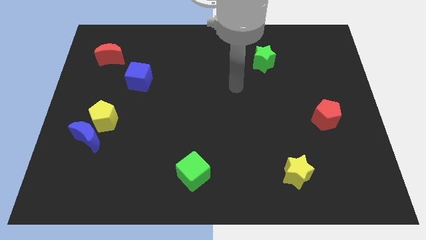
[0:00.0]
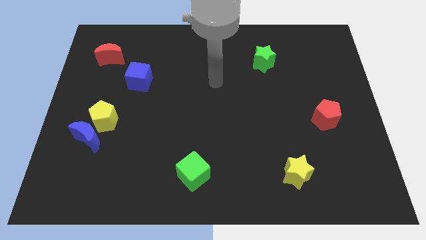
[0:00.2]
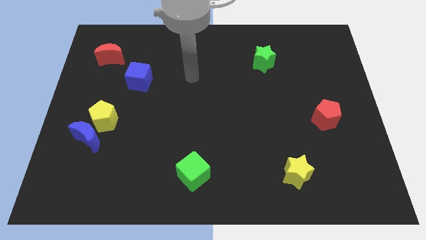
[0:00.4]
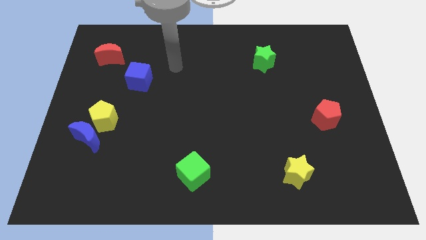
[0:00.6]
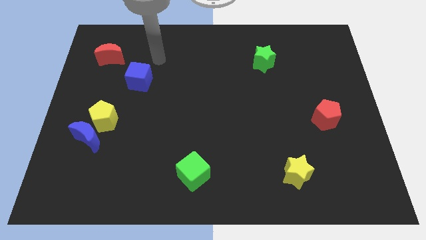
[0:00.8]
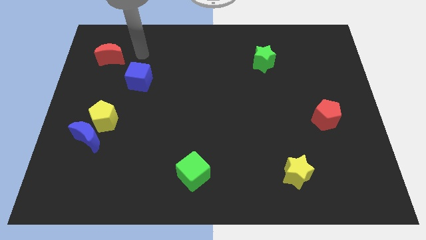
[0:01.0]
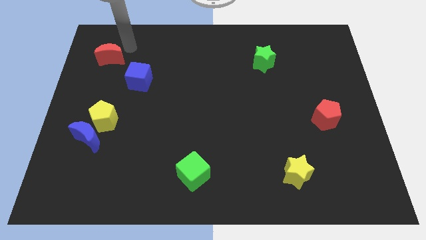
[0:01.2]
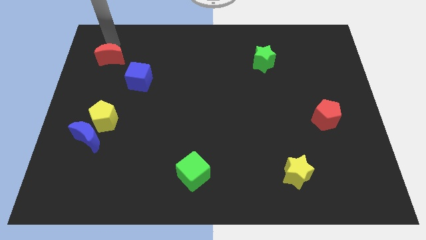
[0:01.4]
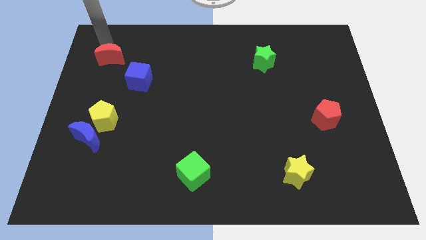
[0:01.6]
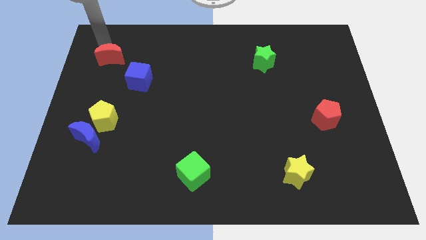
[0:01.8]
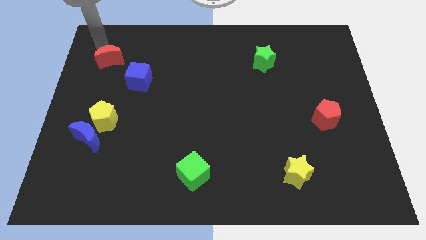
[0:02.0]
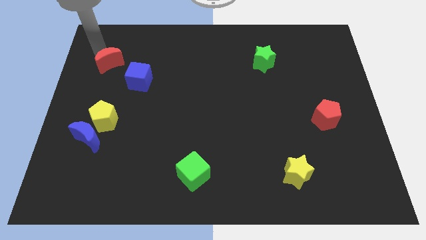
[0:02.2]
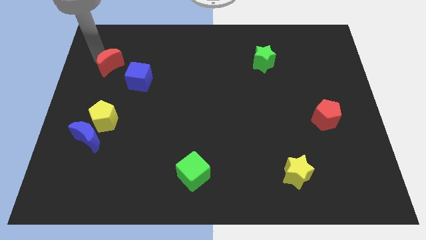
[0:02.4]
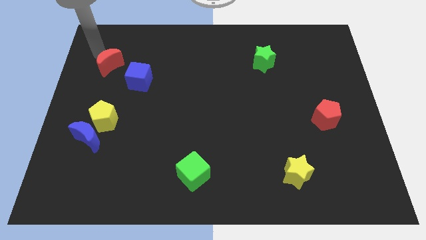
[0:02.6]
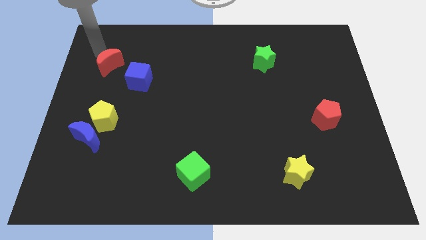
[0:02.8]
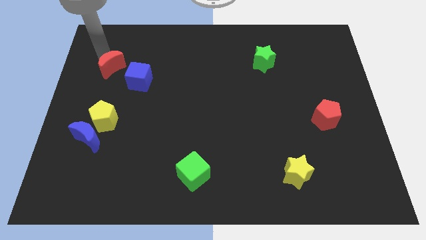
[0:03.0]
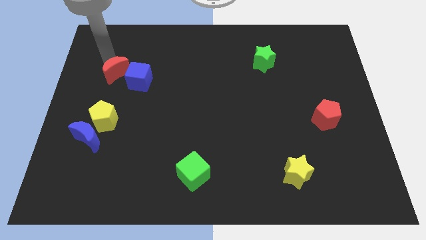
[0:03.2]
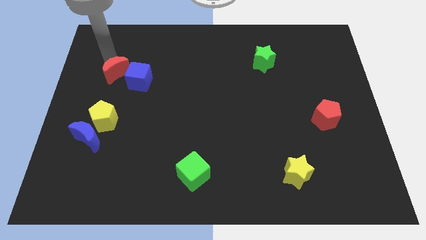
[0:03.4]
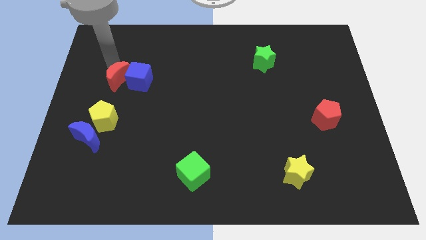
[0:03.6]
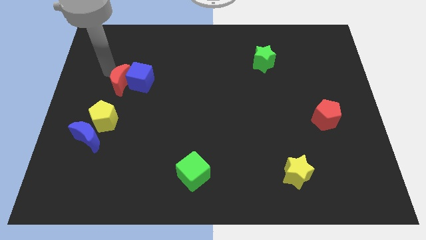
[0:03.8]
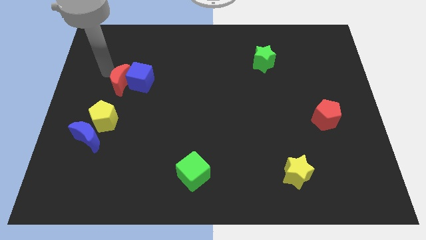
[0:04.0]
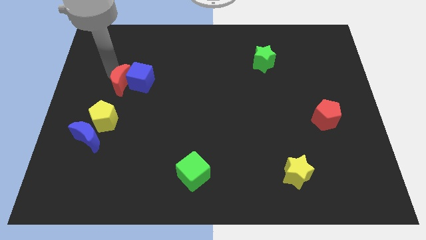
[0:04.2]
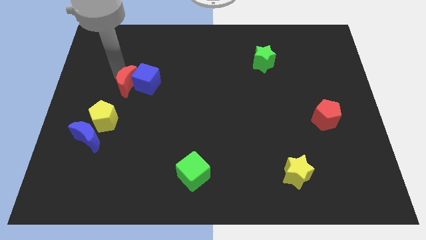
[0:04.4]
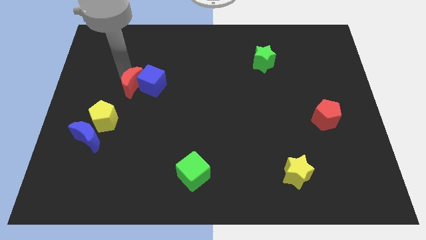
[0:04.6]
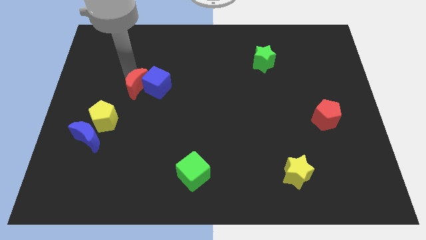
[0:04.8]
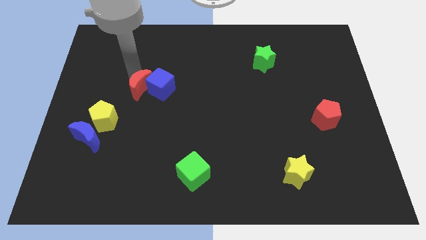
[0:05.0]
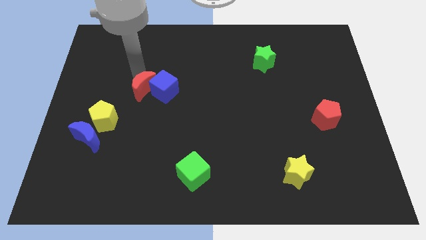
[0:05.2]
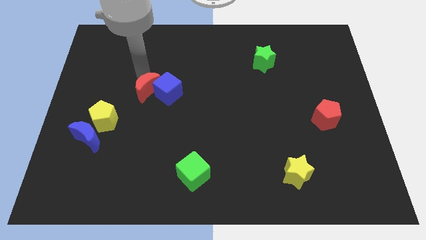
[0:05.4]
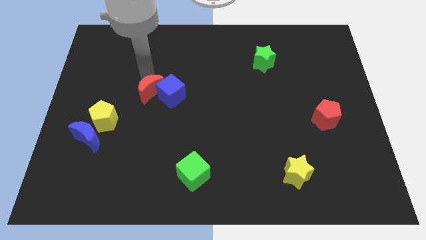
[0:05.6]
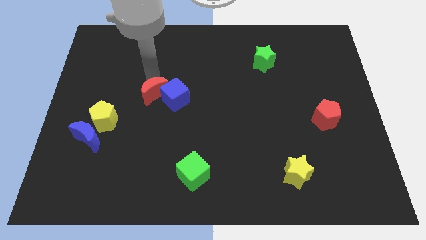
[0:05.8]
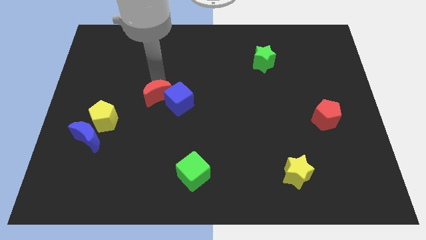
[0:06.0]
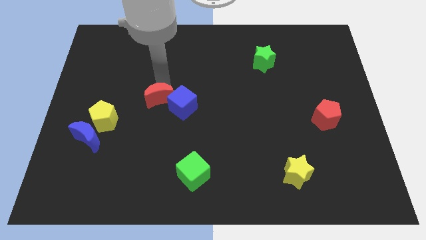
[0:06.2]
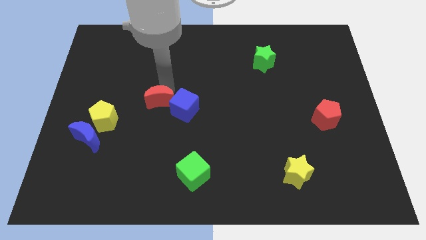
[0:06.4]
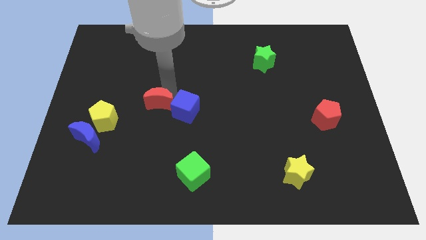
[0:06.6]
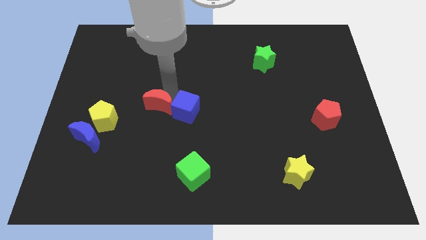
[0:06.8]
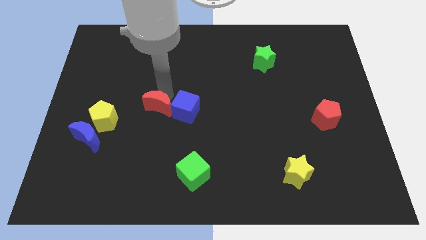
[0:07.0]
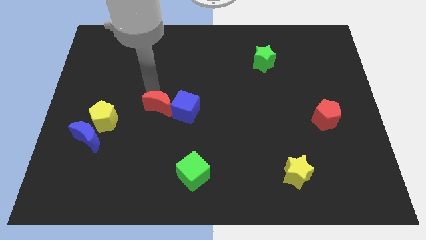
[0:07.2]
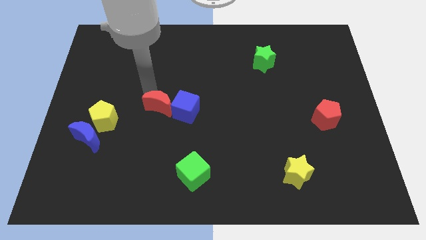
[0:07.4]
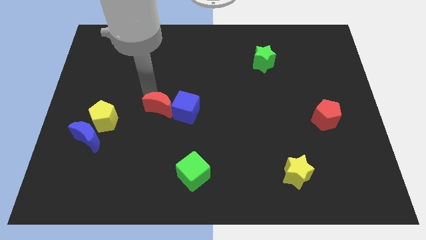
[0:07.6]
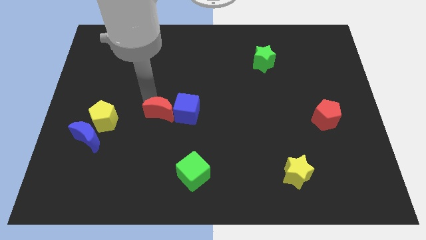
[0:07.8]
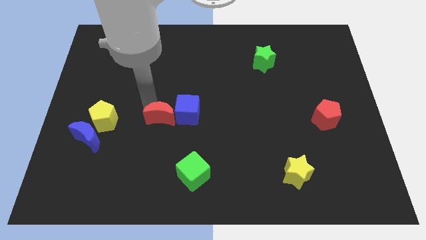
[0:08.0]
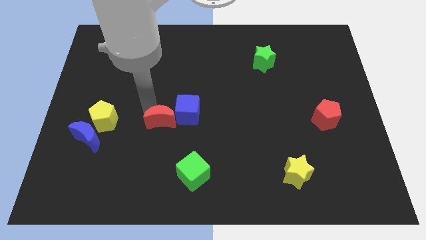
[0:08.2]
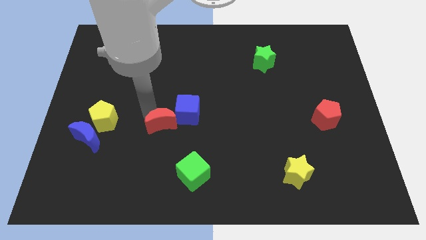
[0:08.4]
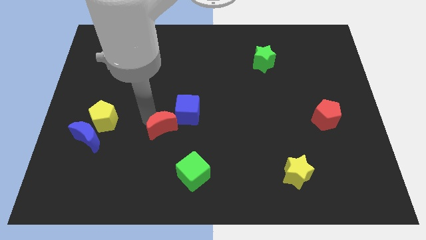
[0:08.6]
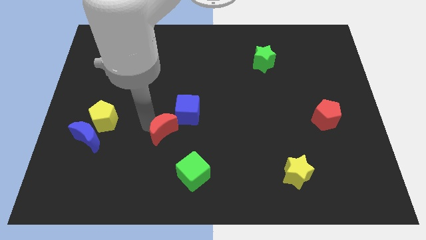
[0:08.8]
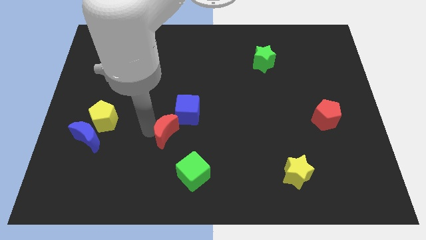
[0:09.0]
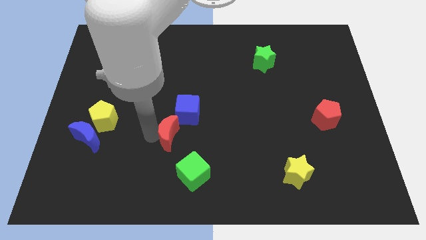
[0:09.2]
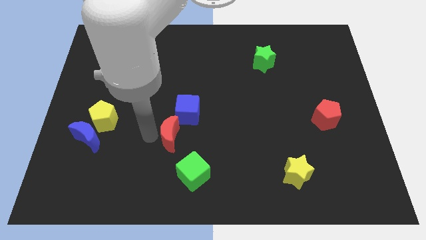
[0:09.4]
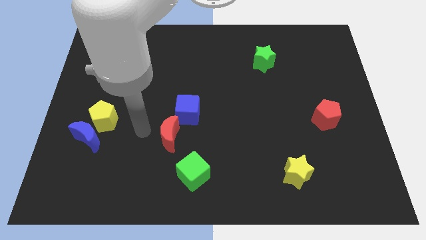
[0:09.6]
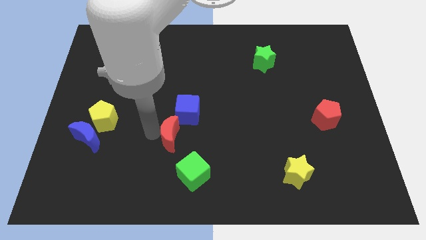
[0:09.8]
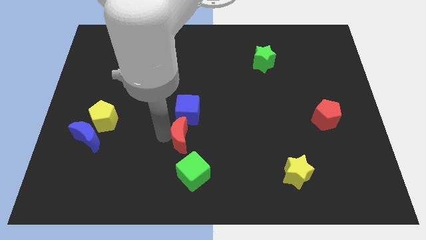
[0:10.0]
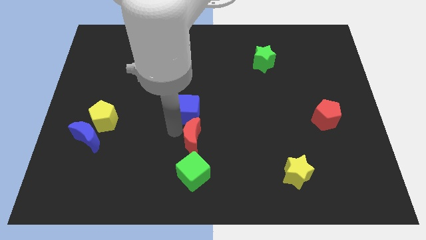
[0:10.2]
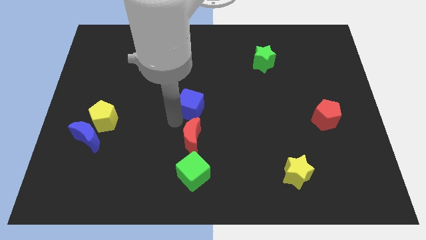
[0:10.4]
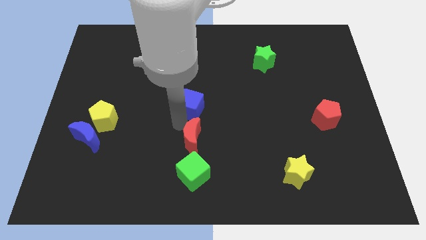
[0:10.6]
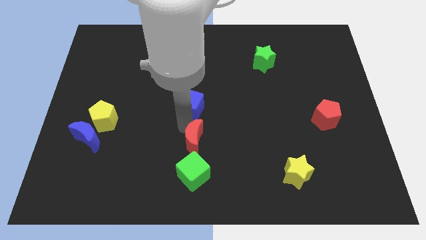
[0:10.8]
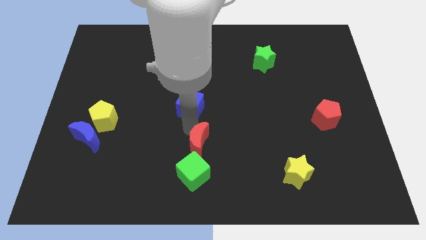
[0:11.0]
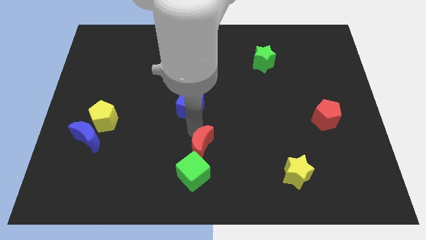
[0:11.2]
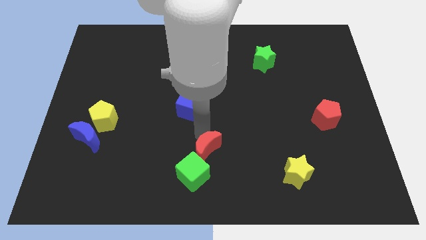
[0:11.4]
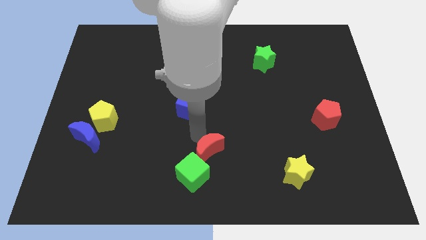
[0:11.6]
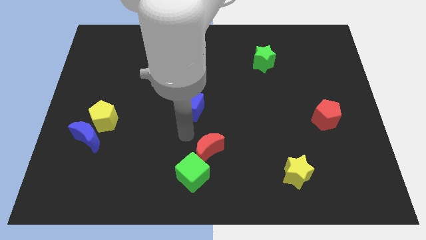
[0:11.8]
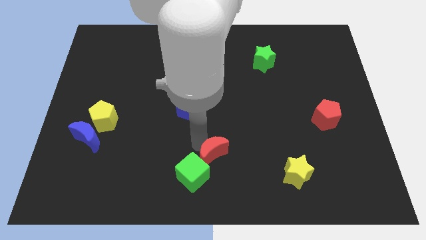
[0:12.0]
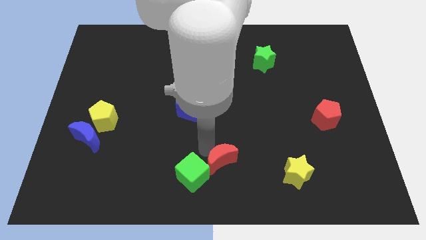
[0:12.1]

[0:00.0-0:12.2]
move the red moon to the right of the green cube

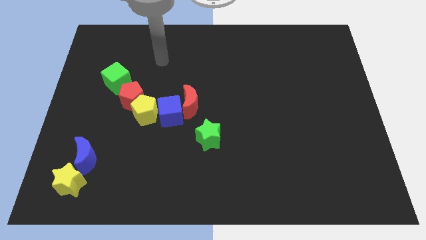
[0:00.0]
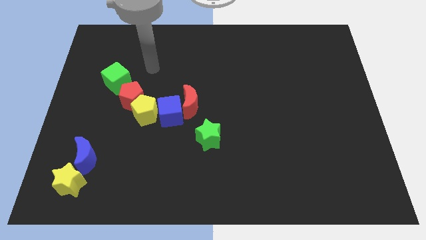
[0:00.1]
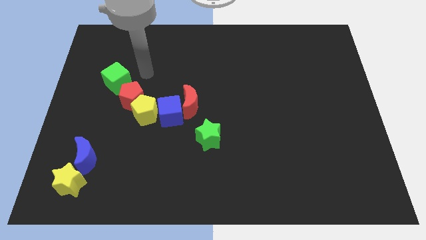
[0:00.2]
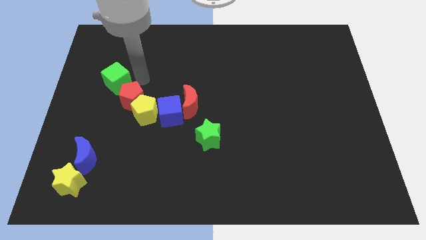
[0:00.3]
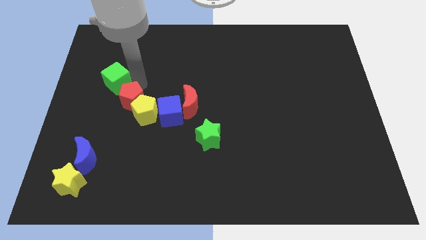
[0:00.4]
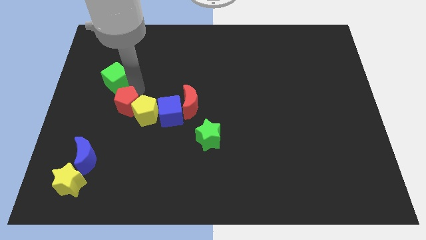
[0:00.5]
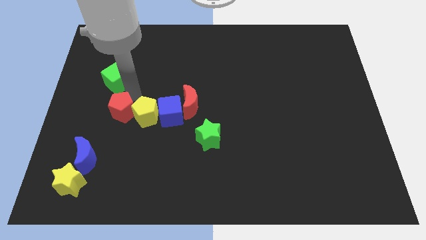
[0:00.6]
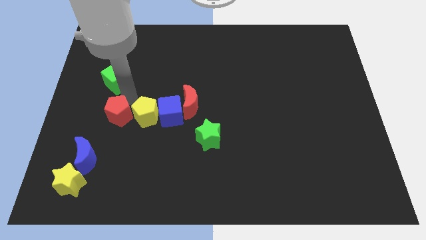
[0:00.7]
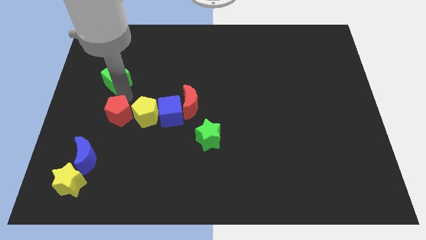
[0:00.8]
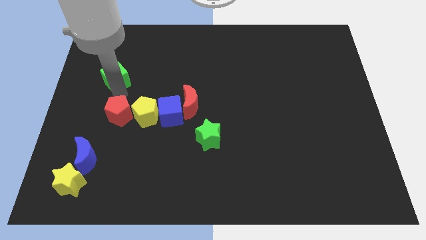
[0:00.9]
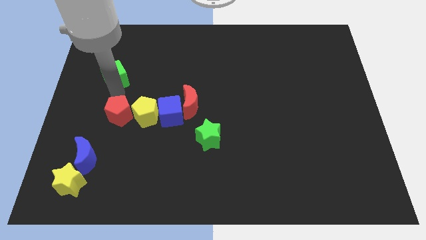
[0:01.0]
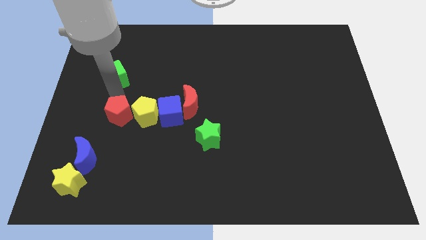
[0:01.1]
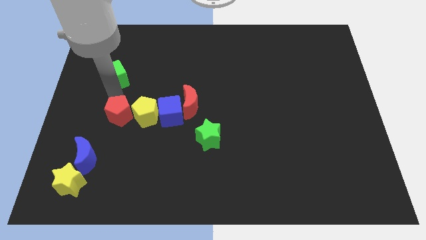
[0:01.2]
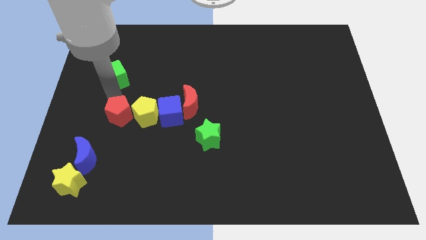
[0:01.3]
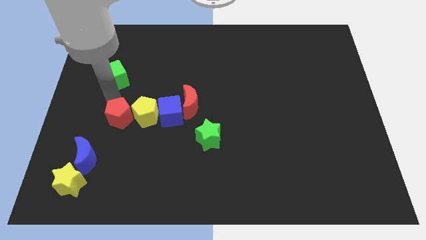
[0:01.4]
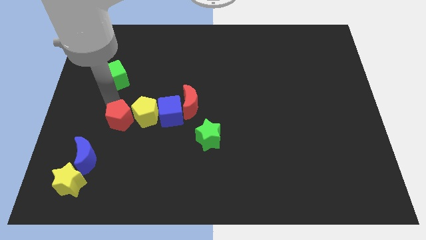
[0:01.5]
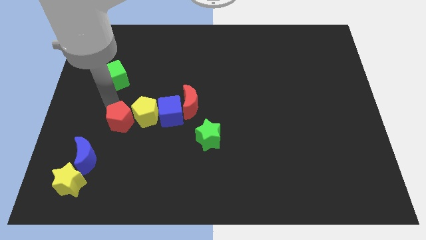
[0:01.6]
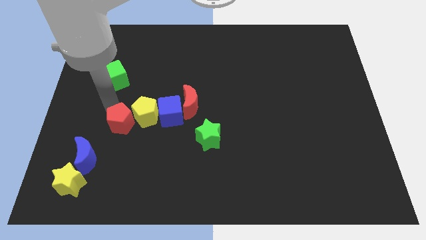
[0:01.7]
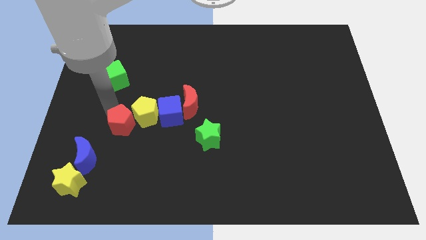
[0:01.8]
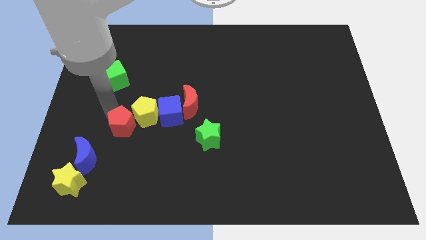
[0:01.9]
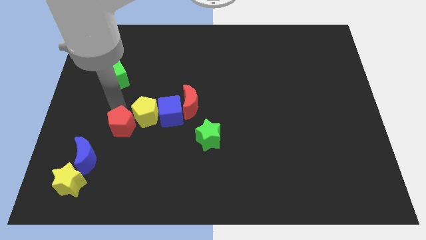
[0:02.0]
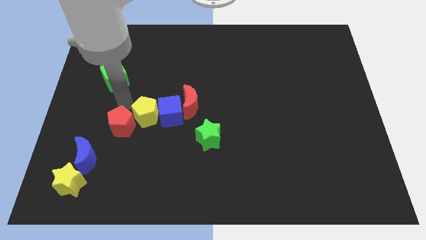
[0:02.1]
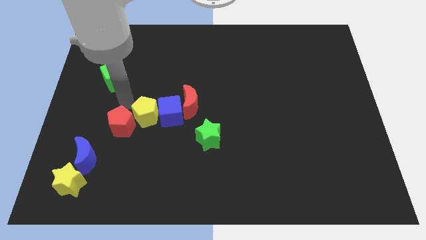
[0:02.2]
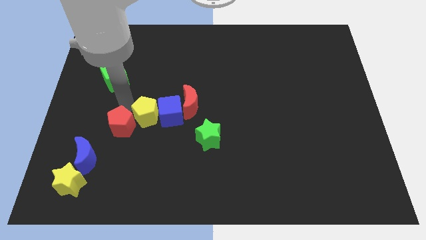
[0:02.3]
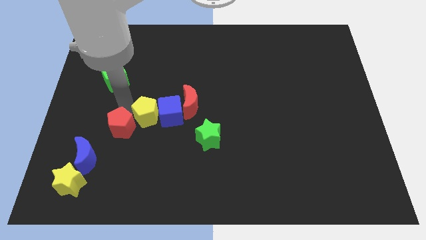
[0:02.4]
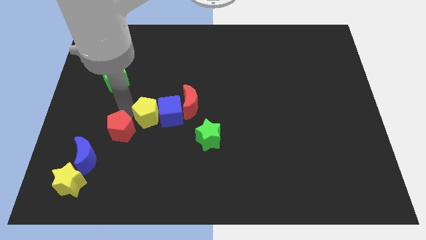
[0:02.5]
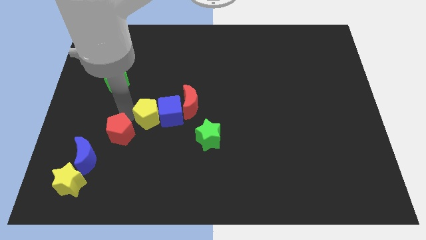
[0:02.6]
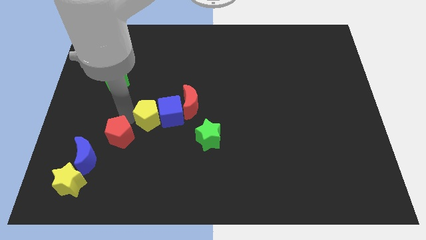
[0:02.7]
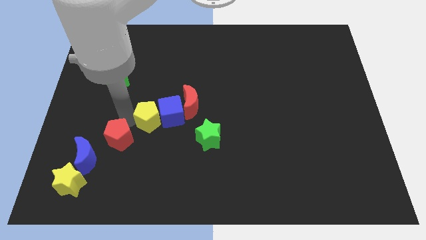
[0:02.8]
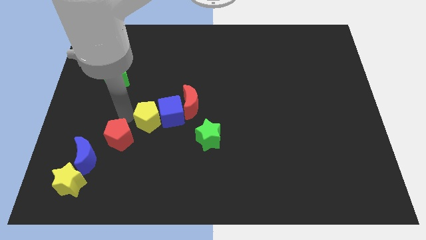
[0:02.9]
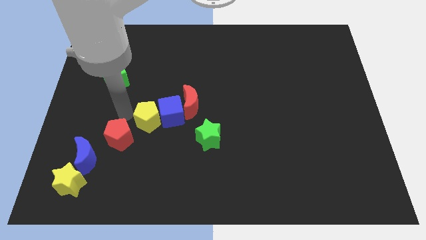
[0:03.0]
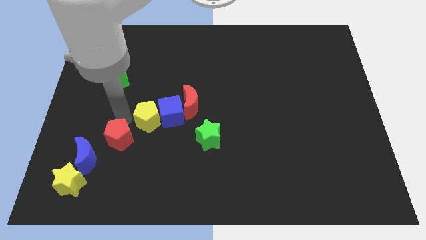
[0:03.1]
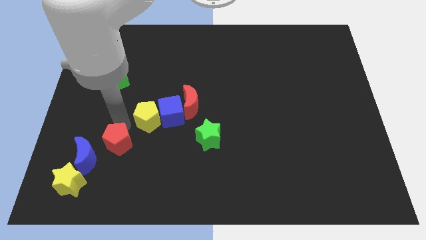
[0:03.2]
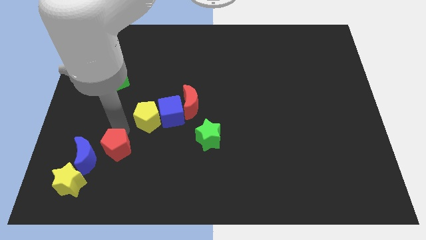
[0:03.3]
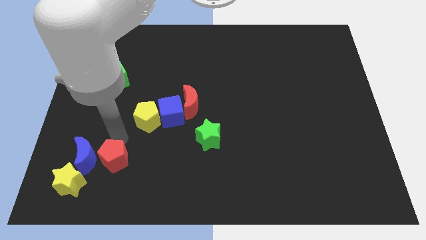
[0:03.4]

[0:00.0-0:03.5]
move the red pentagon to the bottom right side of the blue moon
